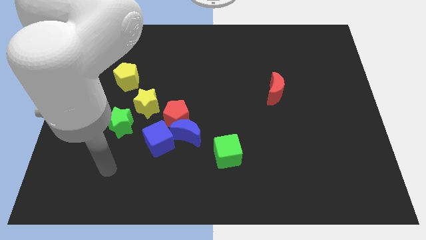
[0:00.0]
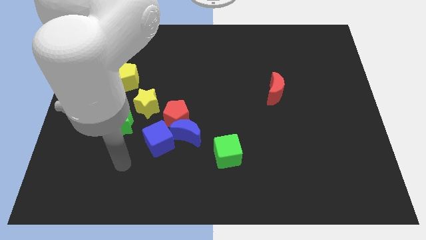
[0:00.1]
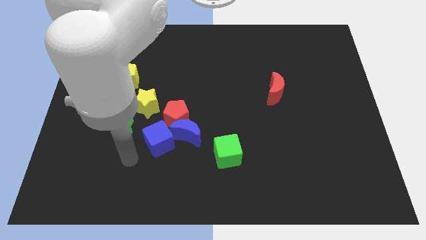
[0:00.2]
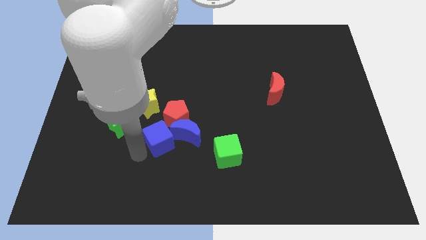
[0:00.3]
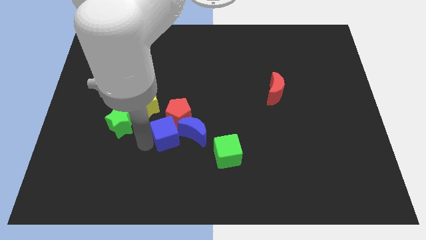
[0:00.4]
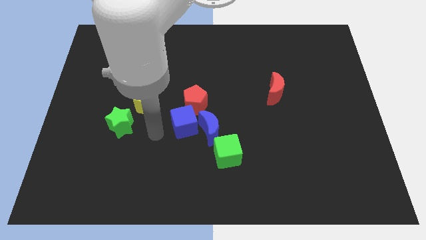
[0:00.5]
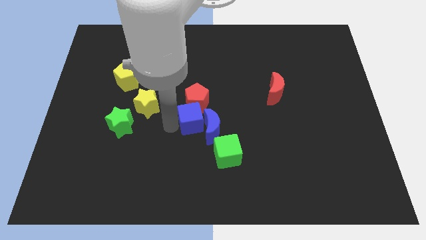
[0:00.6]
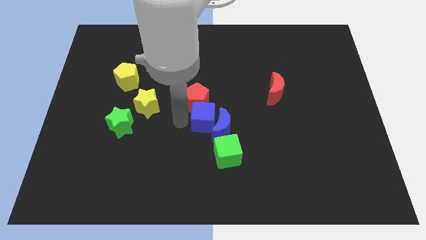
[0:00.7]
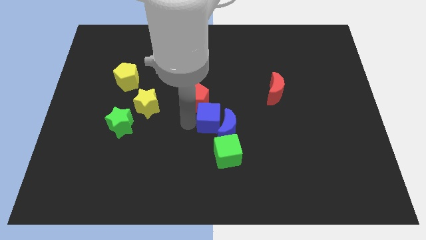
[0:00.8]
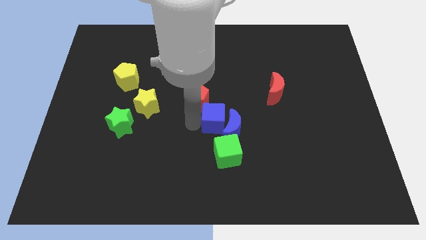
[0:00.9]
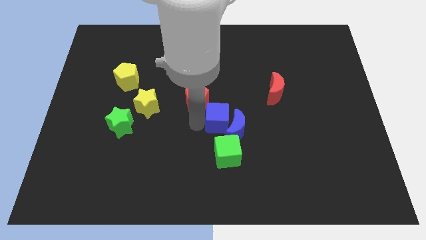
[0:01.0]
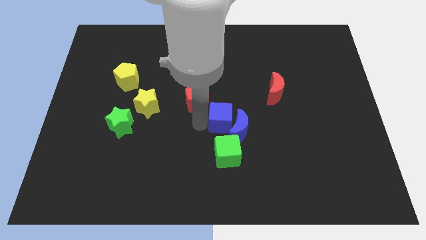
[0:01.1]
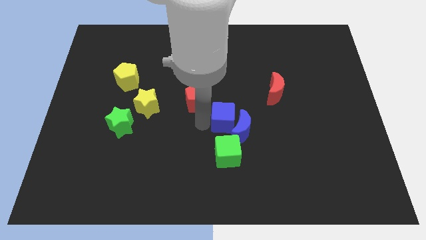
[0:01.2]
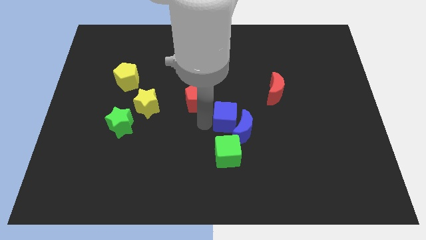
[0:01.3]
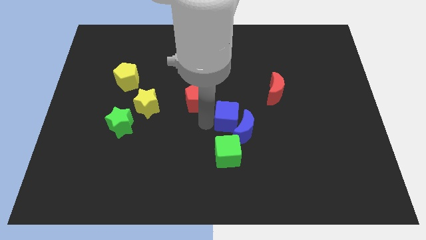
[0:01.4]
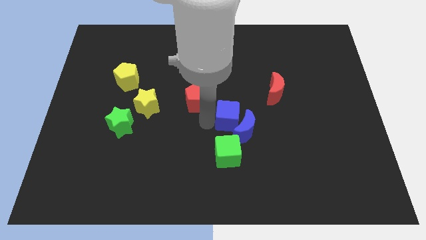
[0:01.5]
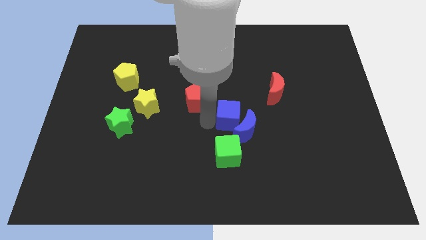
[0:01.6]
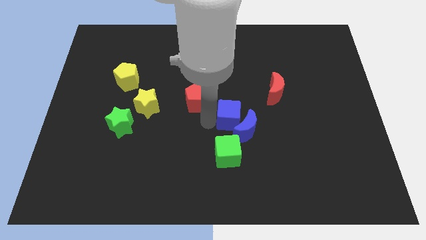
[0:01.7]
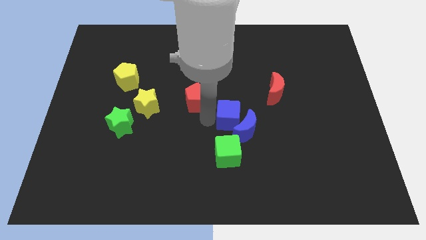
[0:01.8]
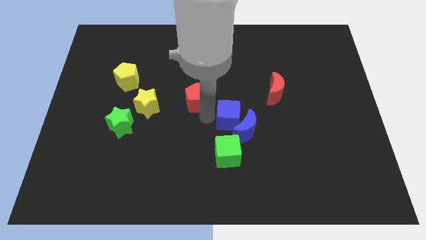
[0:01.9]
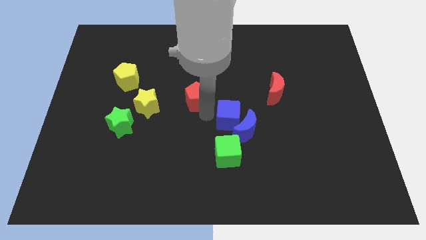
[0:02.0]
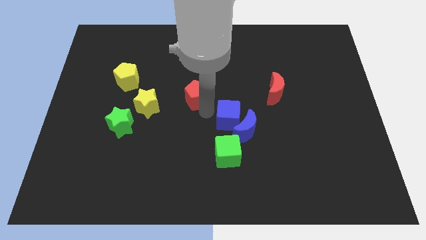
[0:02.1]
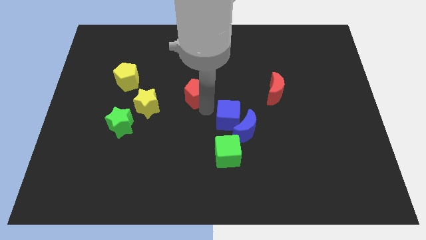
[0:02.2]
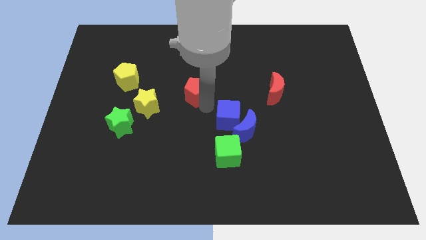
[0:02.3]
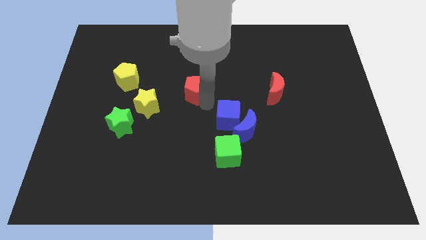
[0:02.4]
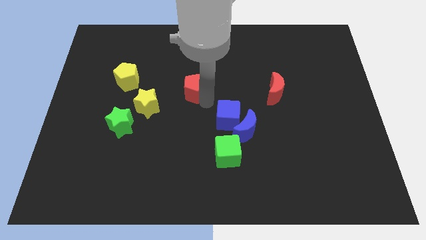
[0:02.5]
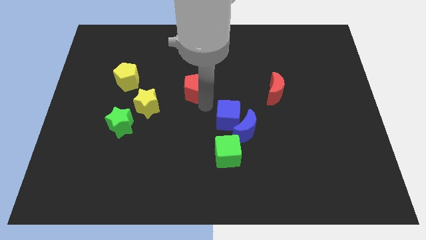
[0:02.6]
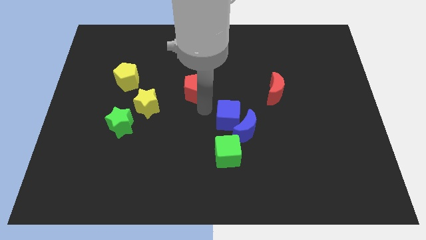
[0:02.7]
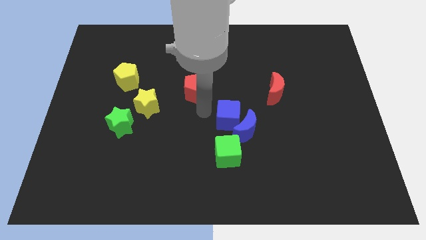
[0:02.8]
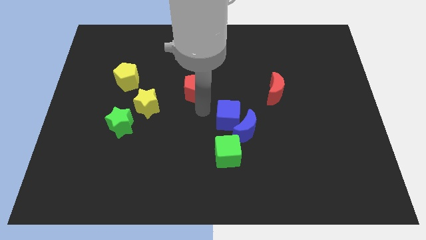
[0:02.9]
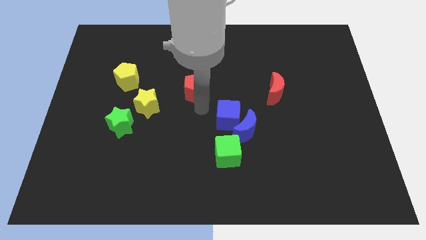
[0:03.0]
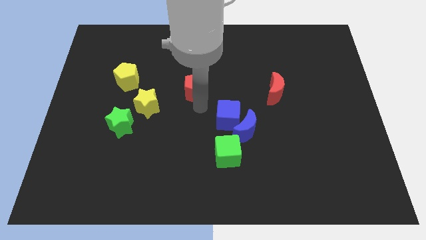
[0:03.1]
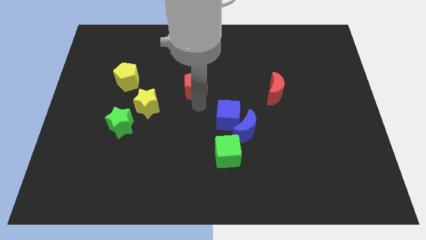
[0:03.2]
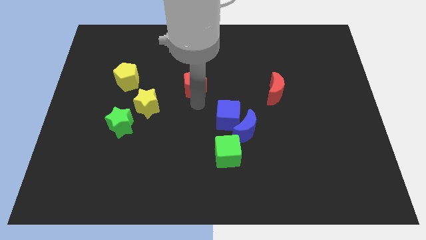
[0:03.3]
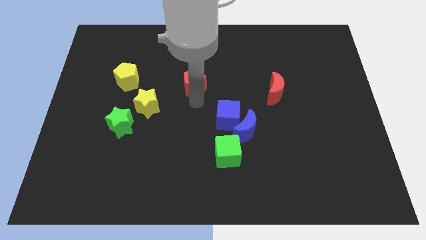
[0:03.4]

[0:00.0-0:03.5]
separate the red pentagon from the blue moon, blue cube, and yellow star

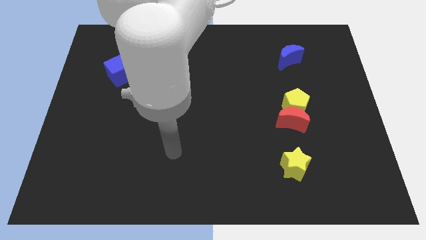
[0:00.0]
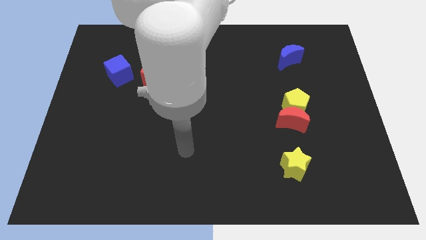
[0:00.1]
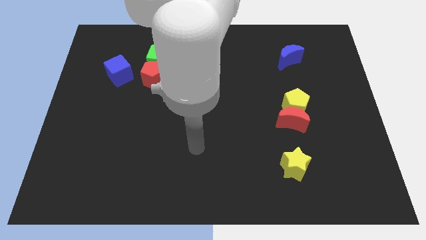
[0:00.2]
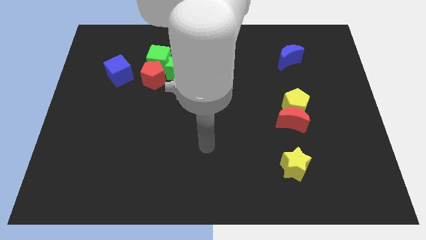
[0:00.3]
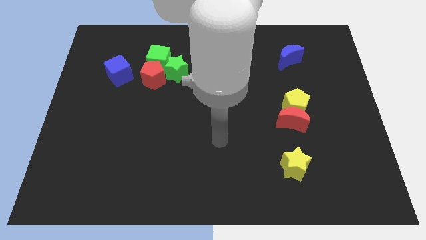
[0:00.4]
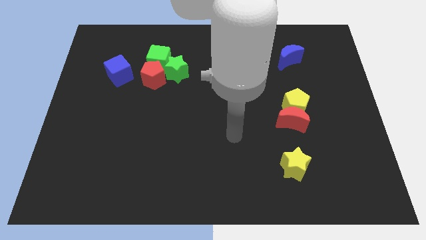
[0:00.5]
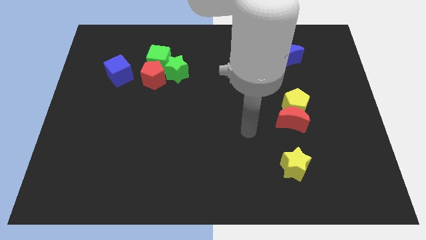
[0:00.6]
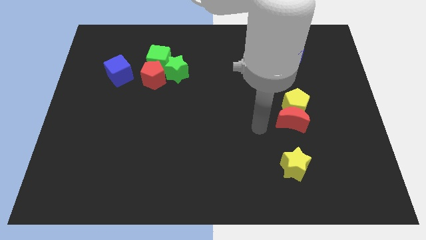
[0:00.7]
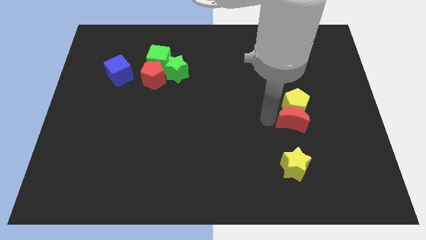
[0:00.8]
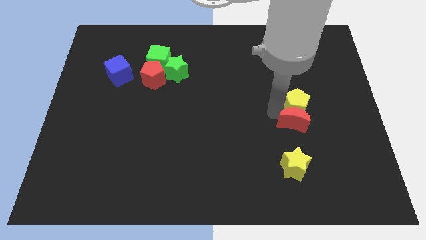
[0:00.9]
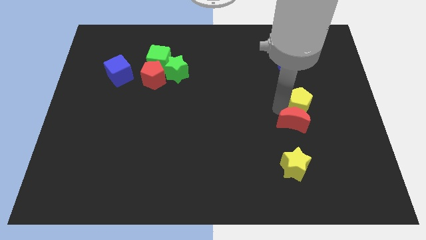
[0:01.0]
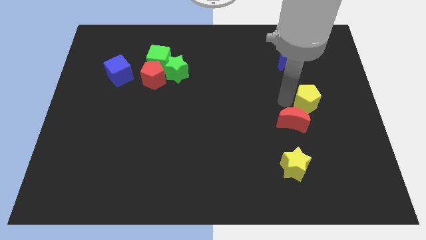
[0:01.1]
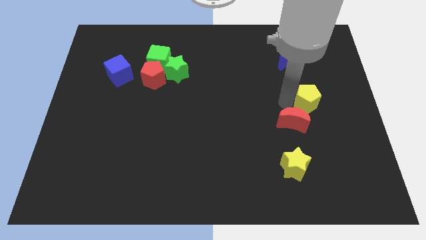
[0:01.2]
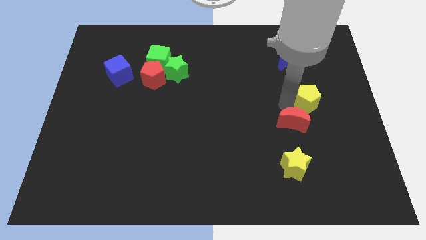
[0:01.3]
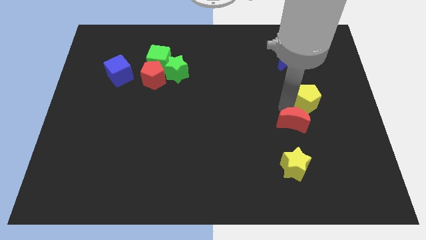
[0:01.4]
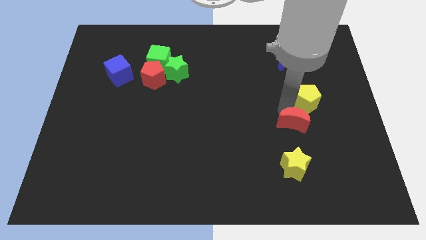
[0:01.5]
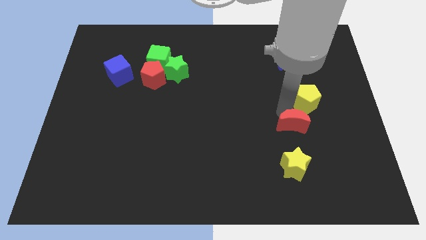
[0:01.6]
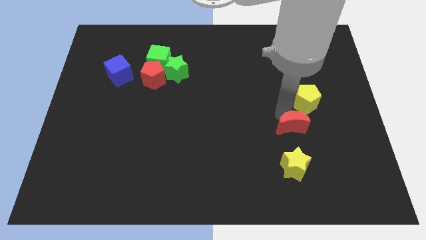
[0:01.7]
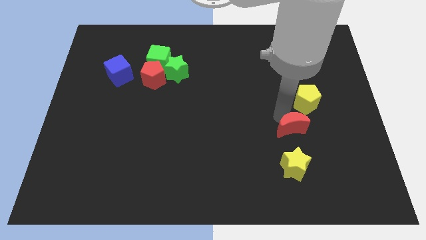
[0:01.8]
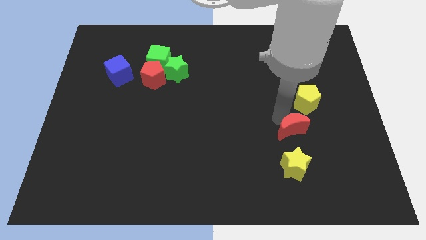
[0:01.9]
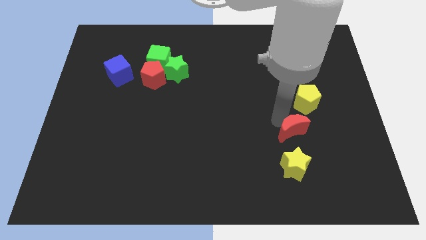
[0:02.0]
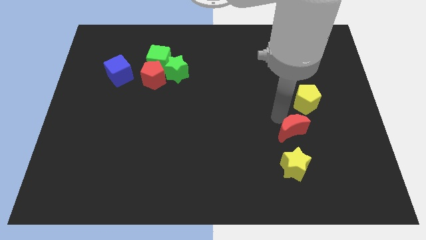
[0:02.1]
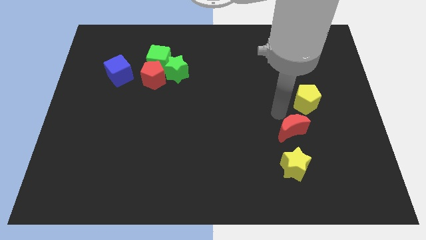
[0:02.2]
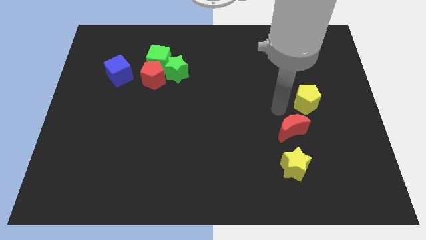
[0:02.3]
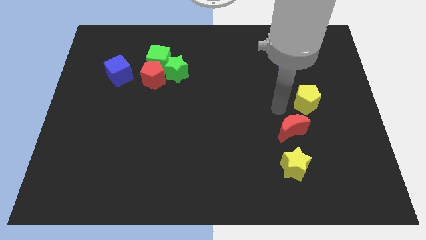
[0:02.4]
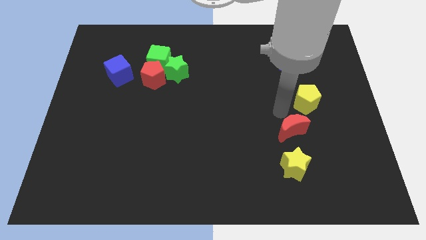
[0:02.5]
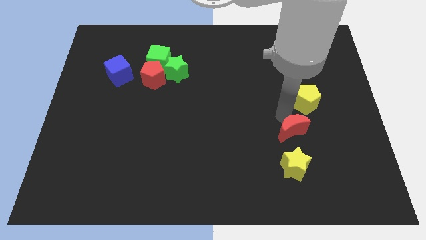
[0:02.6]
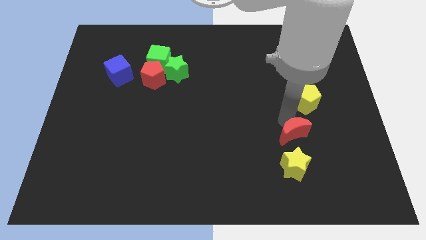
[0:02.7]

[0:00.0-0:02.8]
separate the red moon from the yellow pentagon

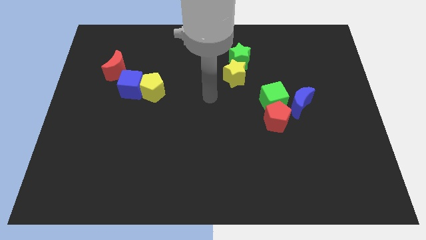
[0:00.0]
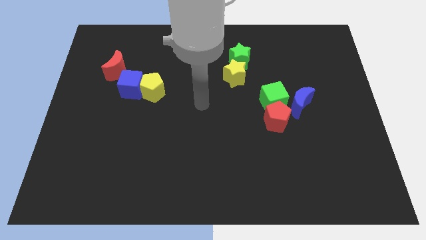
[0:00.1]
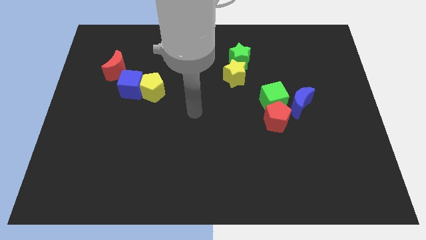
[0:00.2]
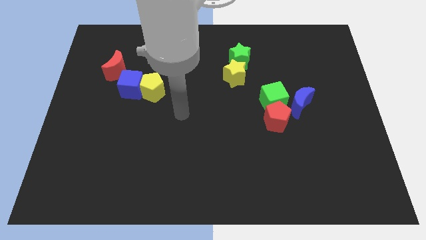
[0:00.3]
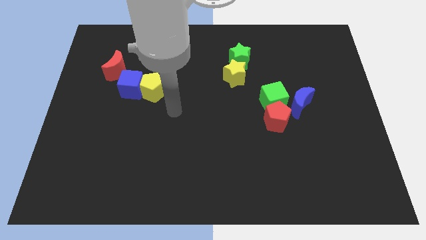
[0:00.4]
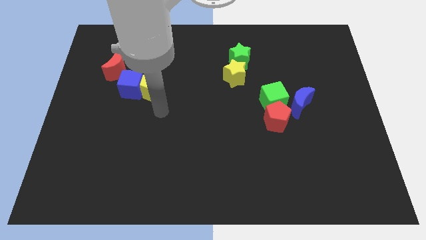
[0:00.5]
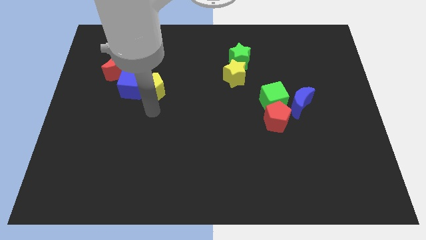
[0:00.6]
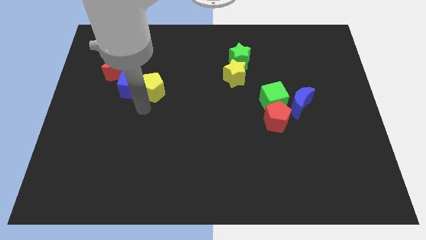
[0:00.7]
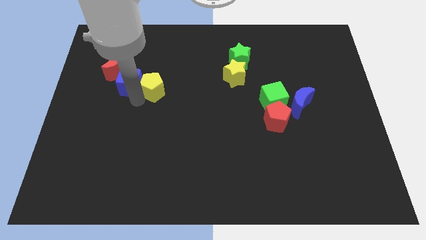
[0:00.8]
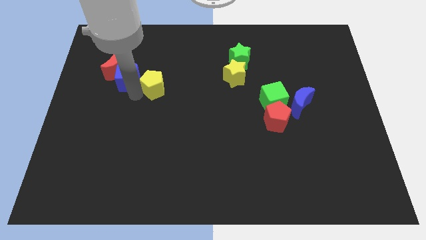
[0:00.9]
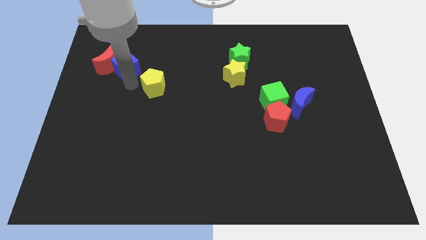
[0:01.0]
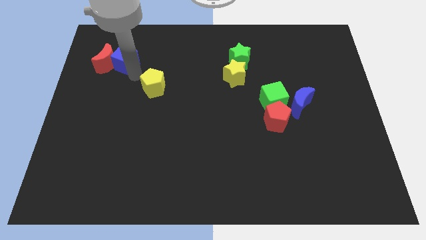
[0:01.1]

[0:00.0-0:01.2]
pull the yellow pentagon apart from the blue cube

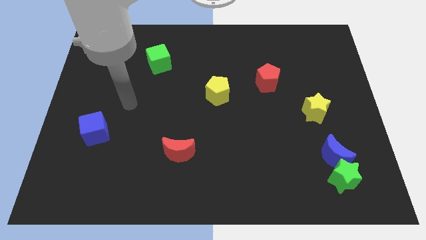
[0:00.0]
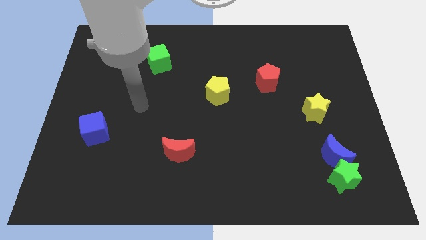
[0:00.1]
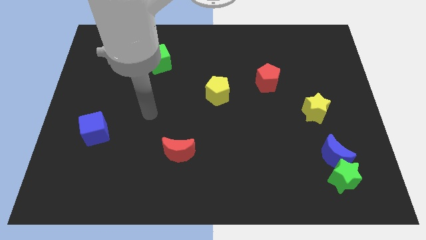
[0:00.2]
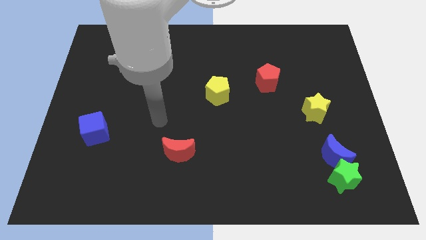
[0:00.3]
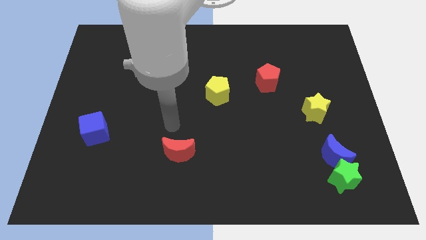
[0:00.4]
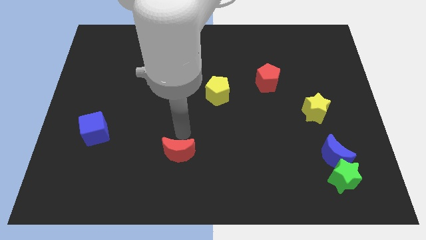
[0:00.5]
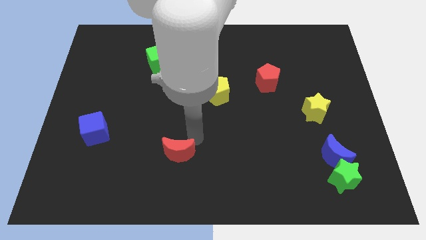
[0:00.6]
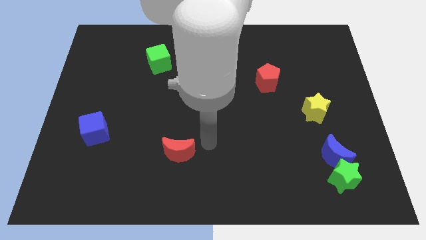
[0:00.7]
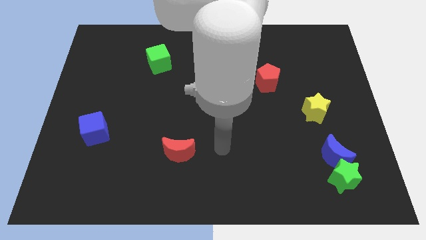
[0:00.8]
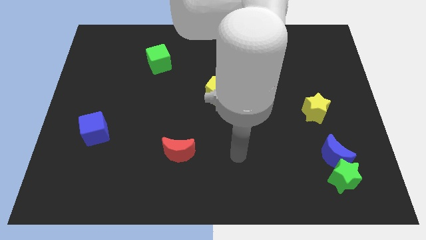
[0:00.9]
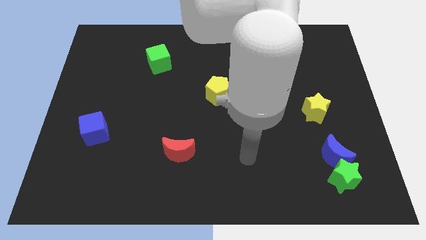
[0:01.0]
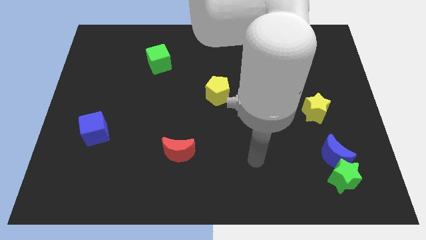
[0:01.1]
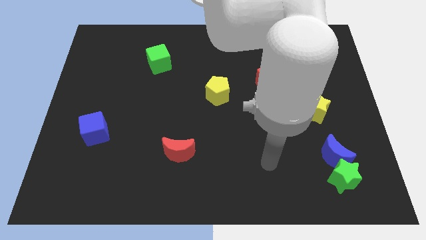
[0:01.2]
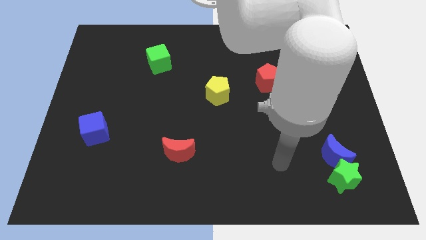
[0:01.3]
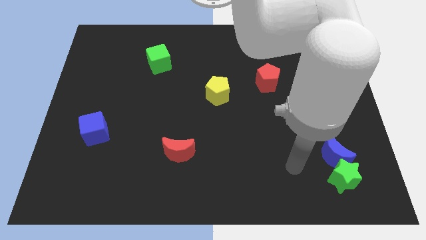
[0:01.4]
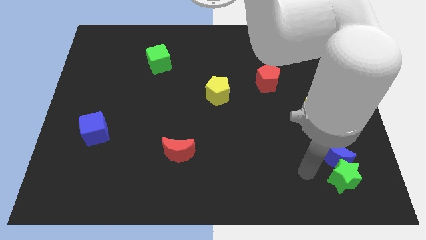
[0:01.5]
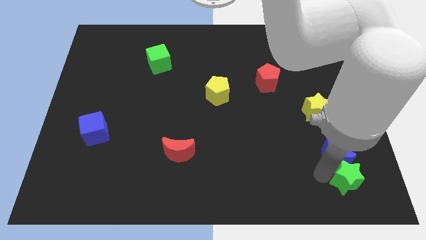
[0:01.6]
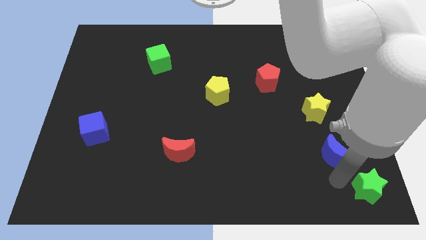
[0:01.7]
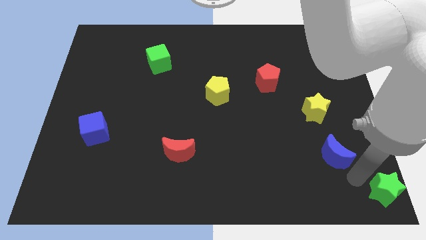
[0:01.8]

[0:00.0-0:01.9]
separate the blue moon from the green star
